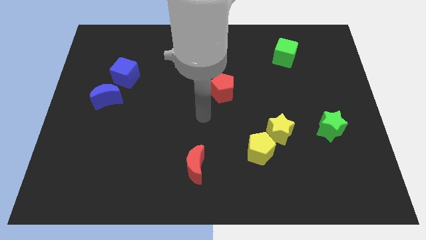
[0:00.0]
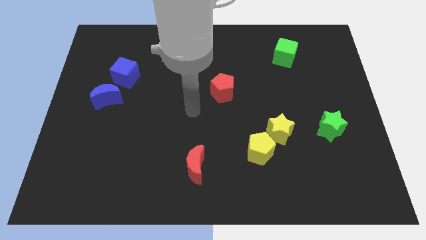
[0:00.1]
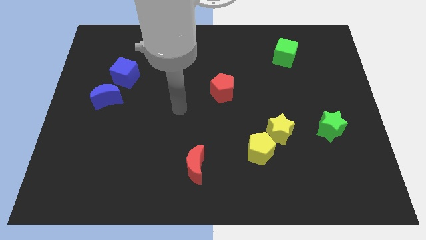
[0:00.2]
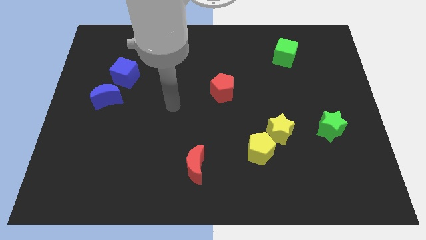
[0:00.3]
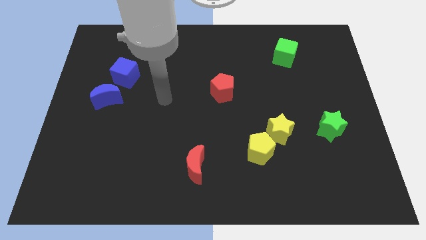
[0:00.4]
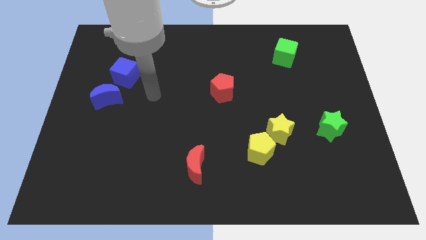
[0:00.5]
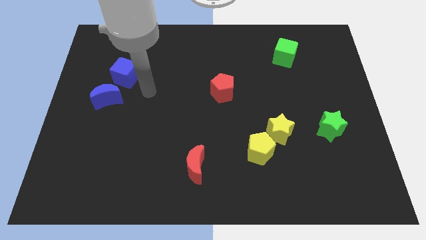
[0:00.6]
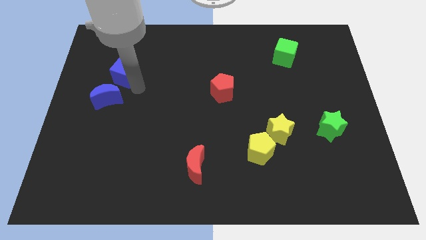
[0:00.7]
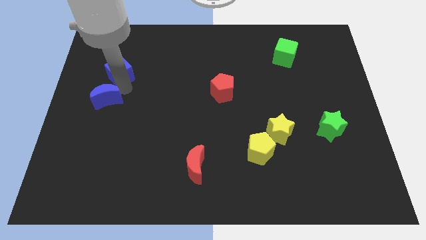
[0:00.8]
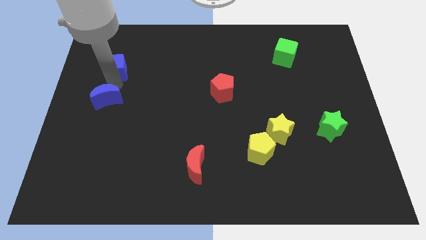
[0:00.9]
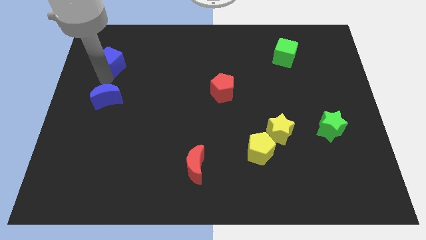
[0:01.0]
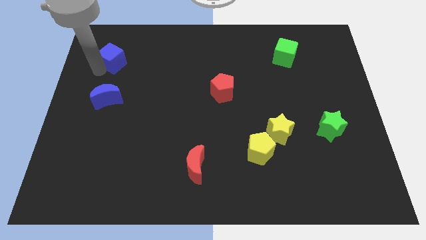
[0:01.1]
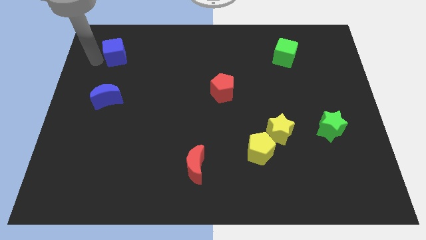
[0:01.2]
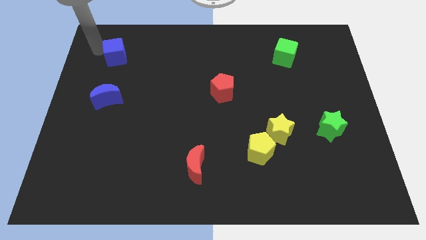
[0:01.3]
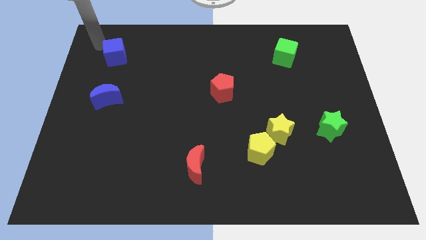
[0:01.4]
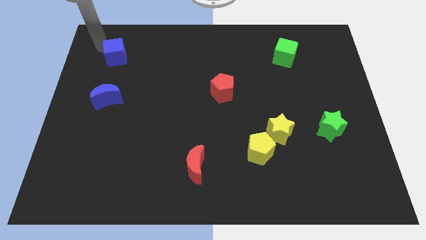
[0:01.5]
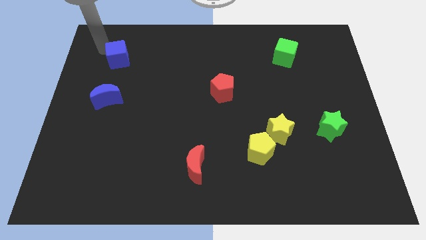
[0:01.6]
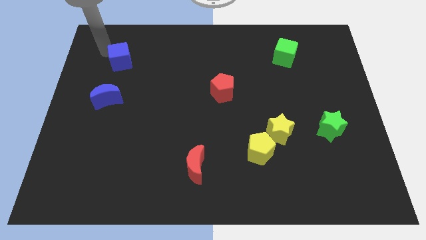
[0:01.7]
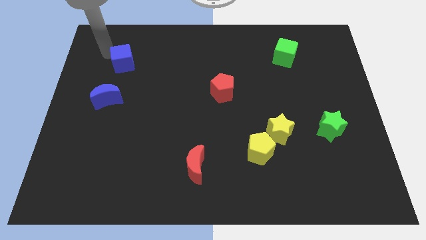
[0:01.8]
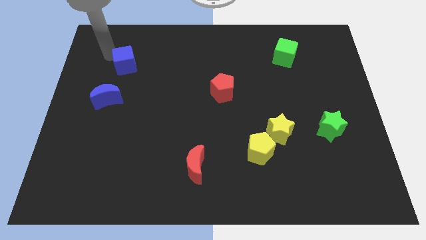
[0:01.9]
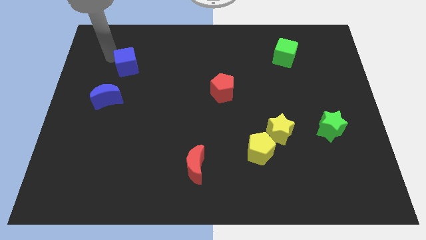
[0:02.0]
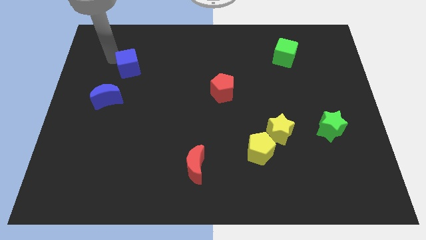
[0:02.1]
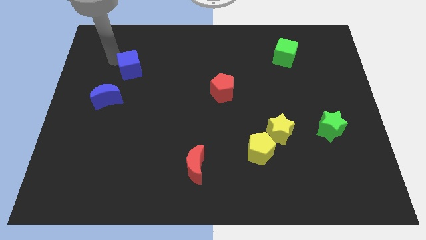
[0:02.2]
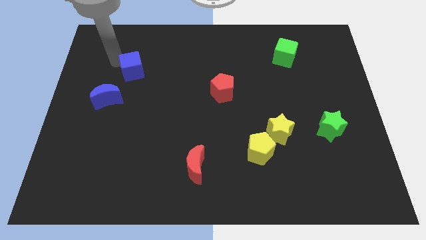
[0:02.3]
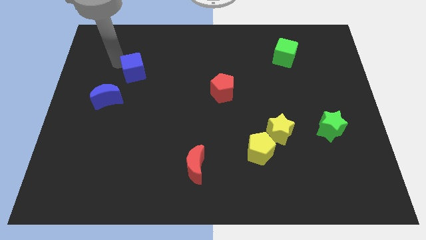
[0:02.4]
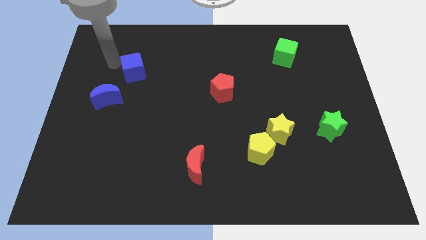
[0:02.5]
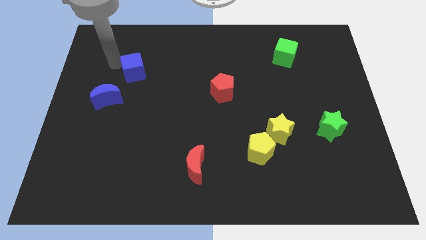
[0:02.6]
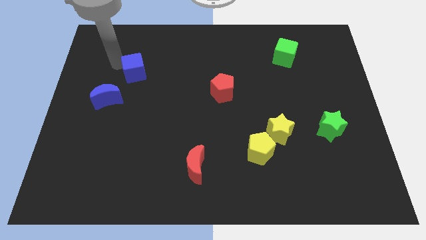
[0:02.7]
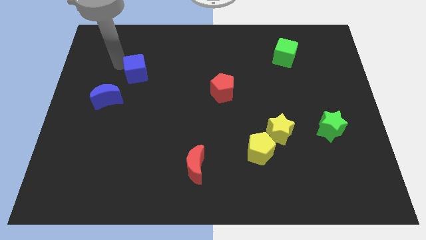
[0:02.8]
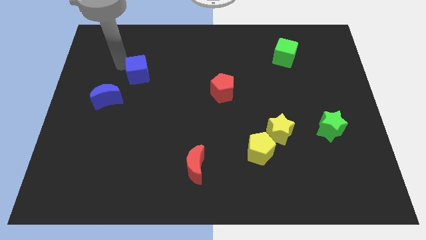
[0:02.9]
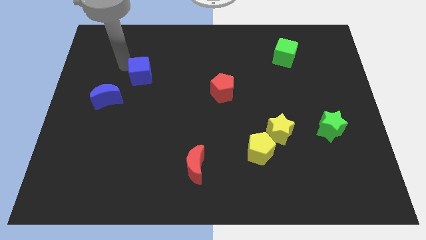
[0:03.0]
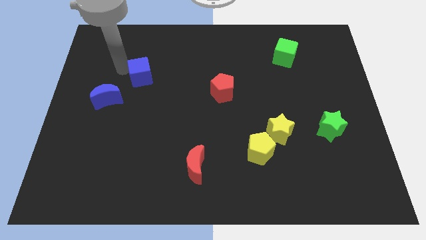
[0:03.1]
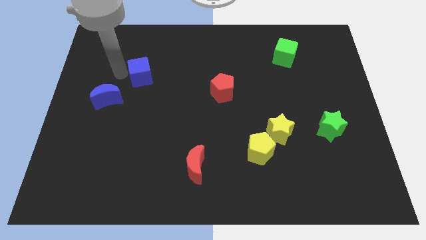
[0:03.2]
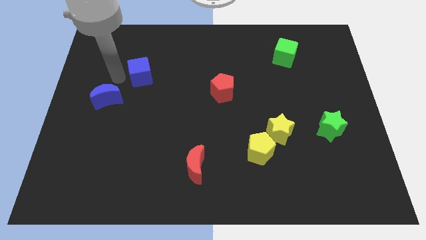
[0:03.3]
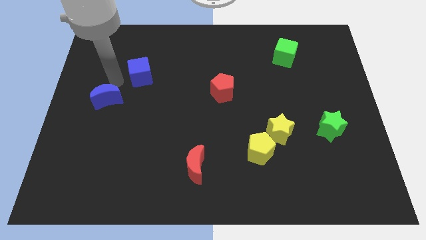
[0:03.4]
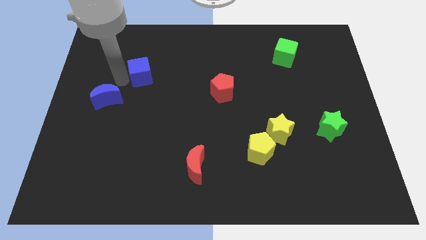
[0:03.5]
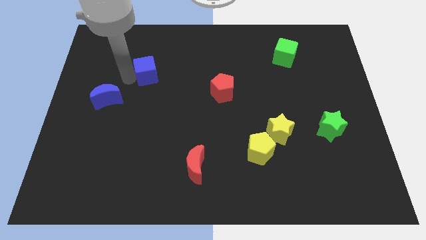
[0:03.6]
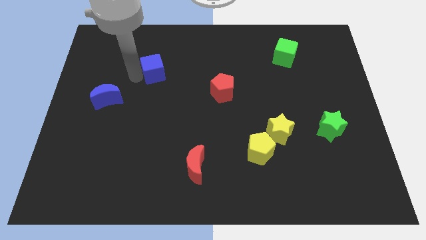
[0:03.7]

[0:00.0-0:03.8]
push the blue cube a little right

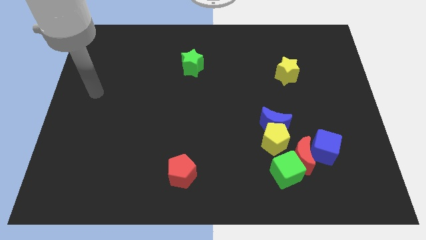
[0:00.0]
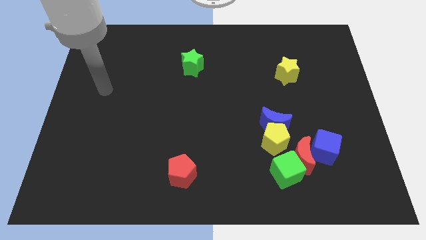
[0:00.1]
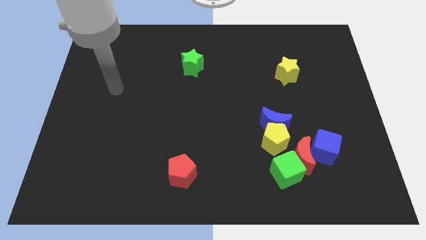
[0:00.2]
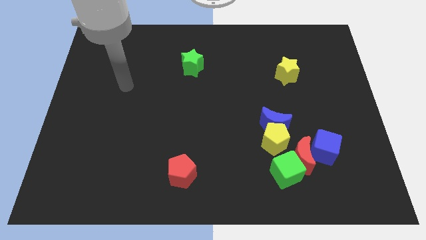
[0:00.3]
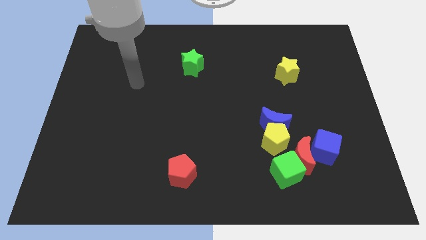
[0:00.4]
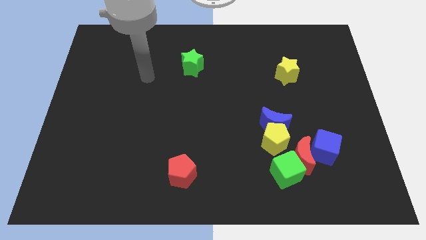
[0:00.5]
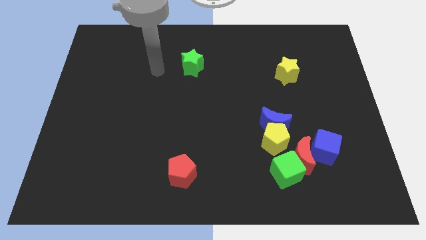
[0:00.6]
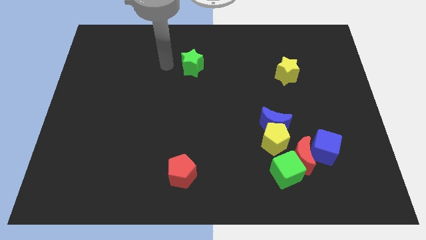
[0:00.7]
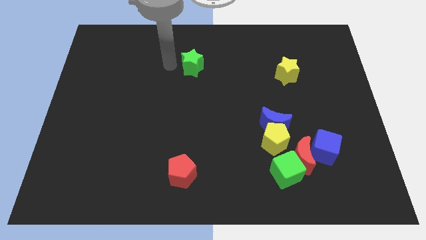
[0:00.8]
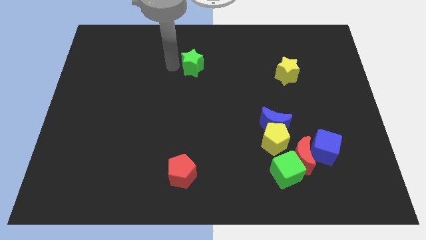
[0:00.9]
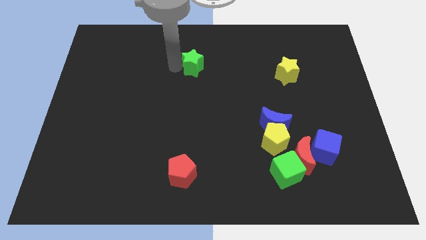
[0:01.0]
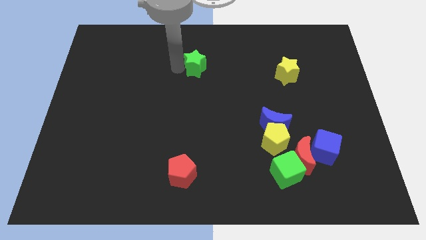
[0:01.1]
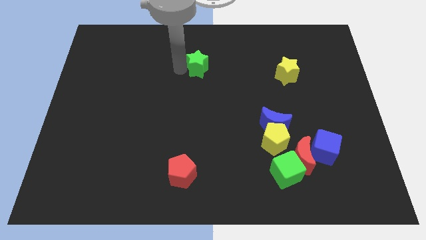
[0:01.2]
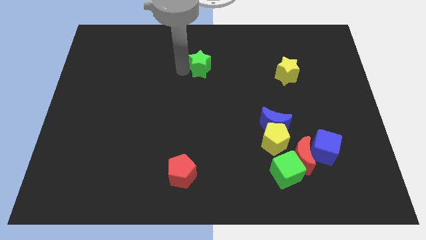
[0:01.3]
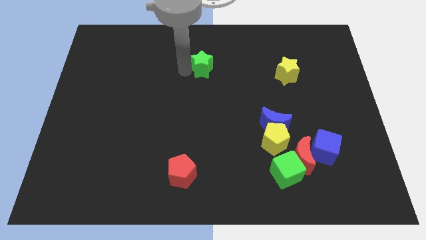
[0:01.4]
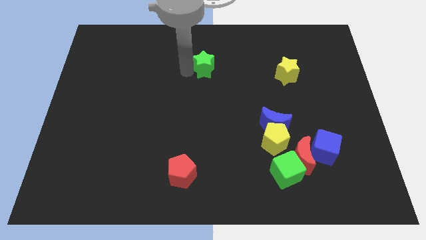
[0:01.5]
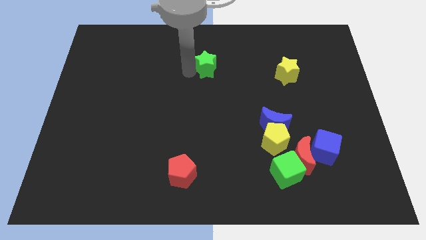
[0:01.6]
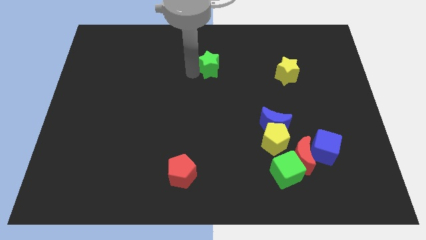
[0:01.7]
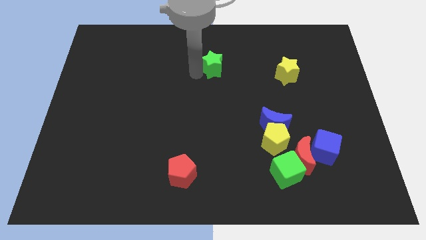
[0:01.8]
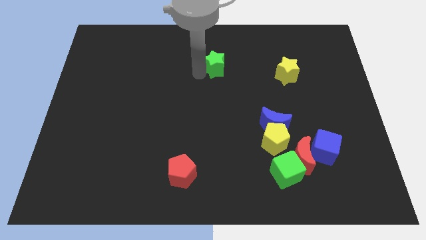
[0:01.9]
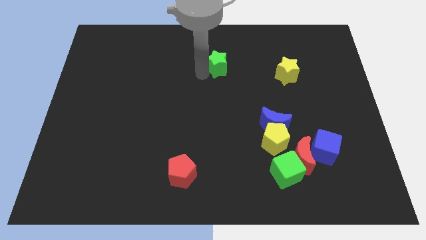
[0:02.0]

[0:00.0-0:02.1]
slide the green star to the right somewhat

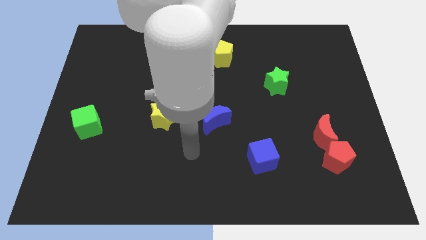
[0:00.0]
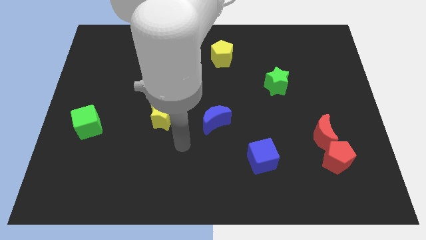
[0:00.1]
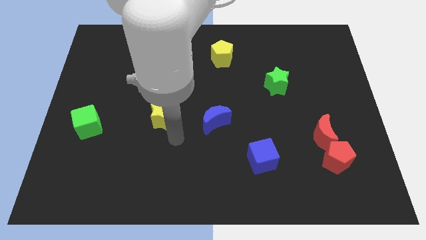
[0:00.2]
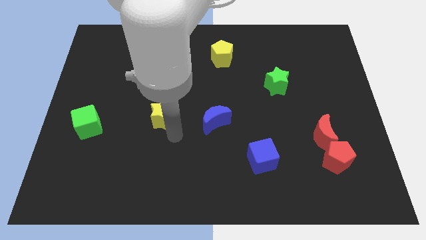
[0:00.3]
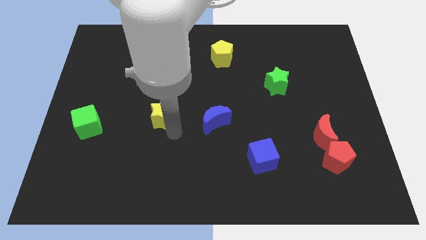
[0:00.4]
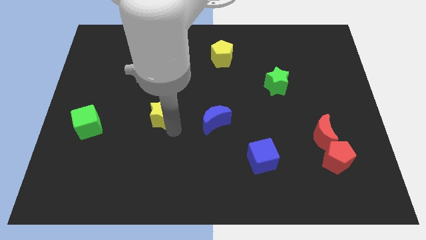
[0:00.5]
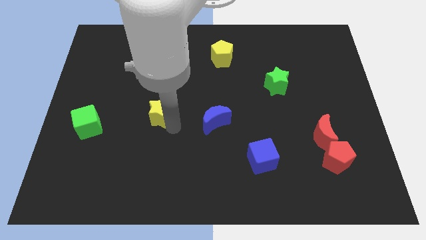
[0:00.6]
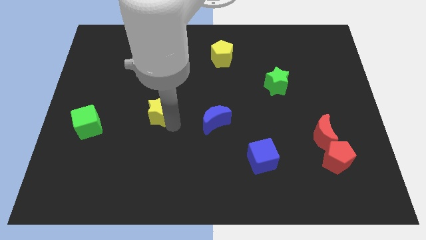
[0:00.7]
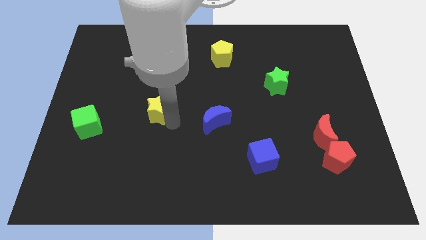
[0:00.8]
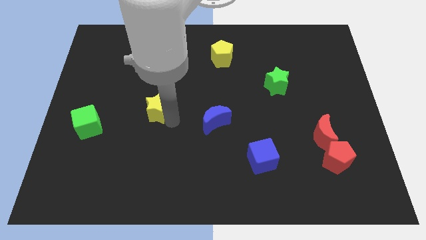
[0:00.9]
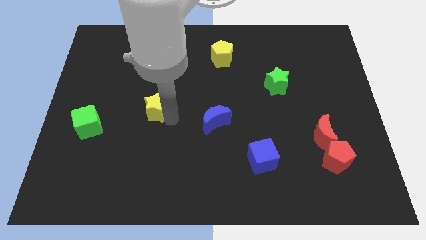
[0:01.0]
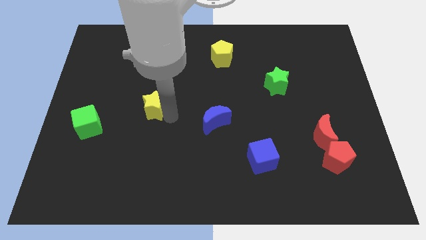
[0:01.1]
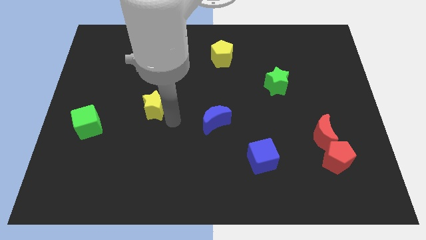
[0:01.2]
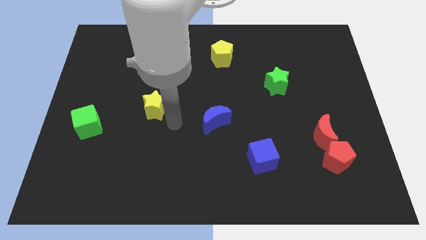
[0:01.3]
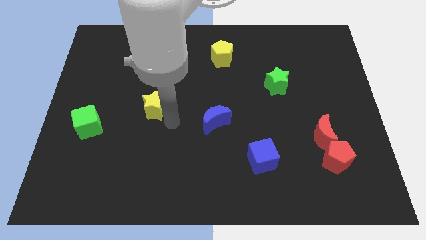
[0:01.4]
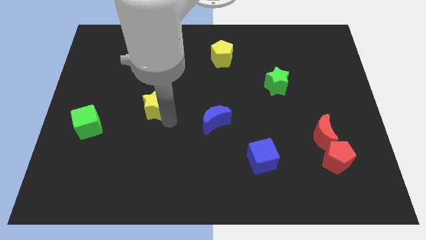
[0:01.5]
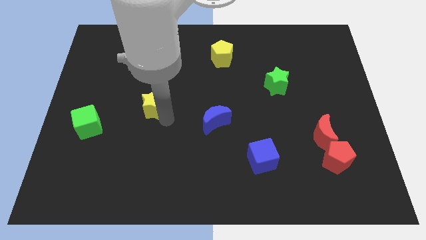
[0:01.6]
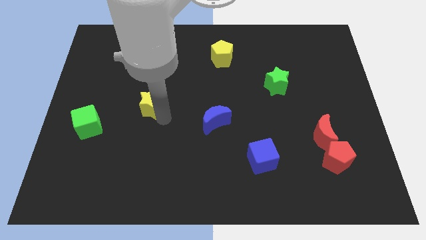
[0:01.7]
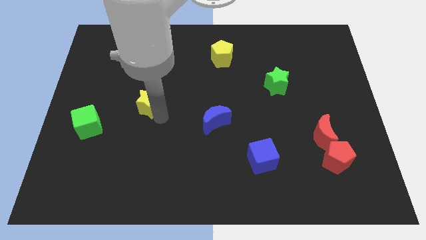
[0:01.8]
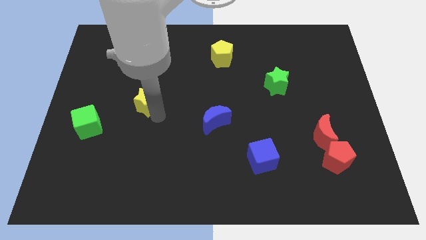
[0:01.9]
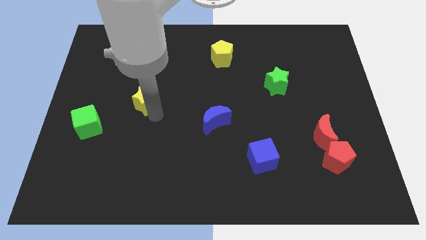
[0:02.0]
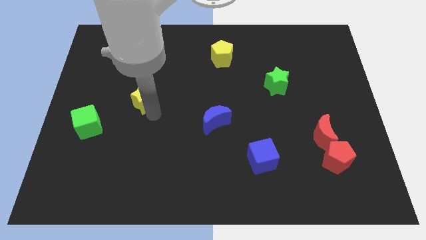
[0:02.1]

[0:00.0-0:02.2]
slide the yellow star a little up and then to the left
